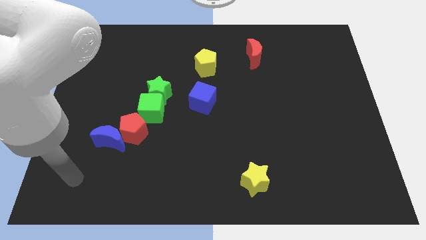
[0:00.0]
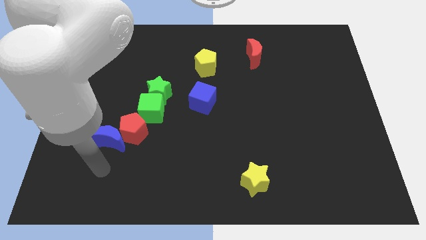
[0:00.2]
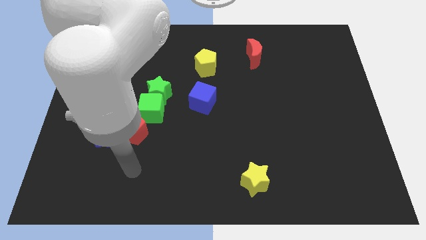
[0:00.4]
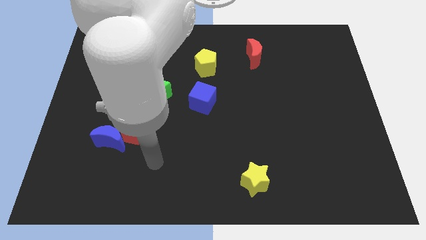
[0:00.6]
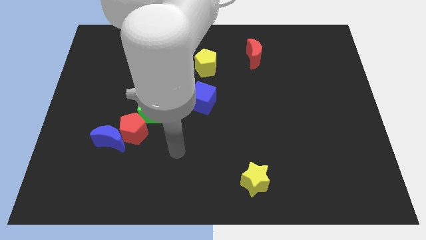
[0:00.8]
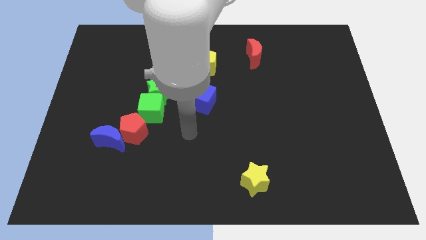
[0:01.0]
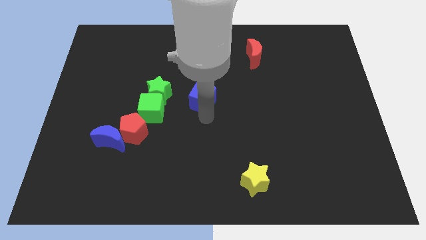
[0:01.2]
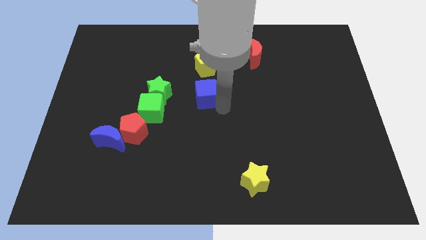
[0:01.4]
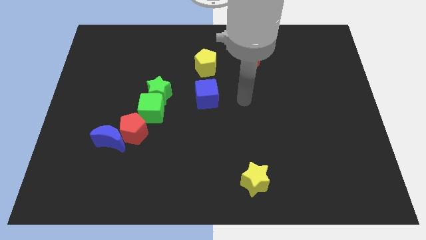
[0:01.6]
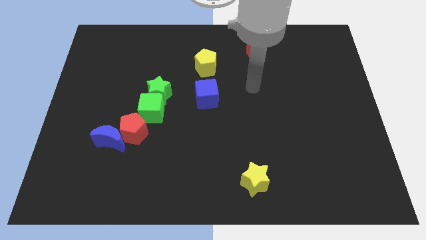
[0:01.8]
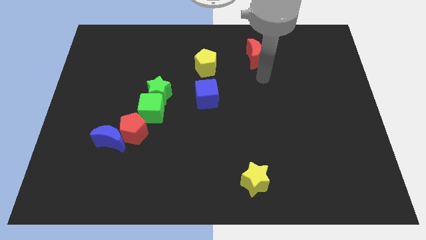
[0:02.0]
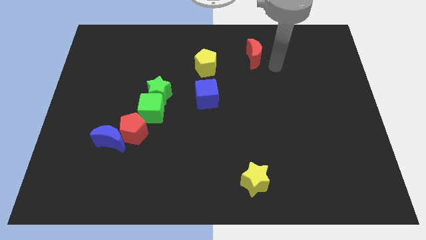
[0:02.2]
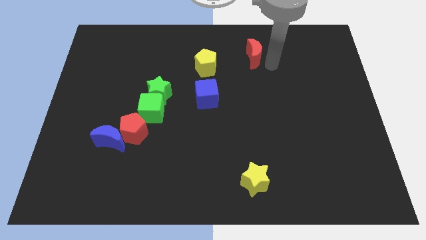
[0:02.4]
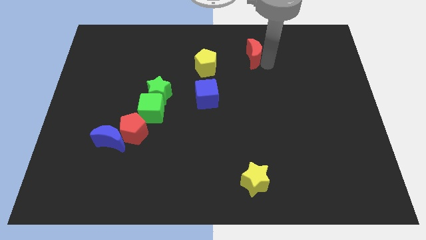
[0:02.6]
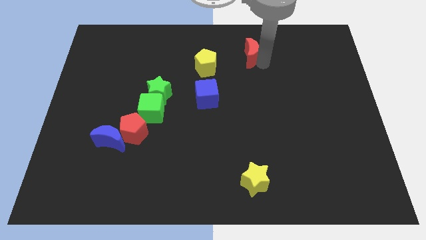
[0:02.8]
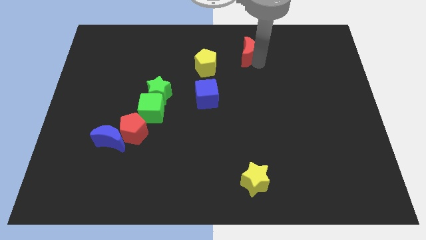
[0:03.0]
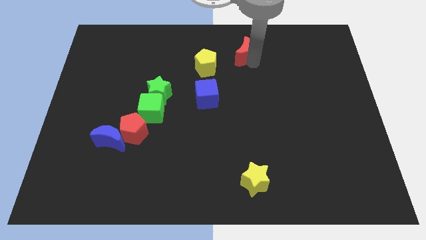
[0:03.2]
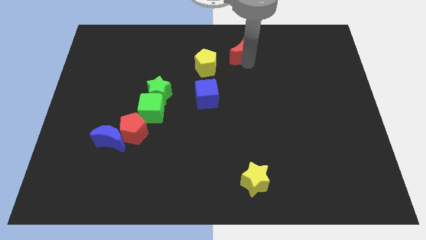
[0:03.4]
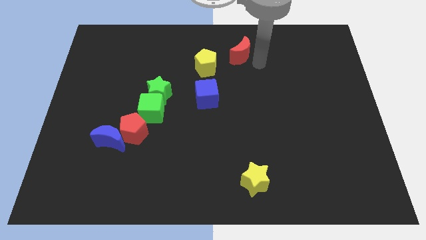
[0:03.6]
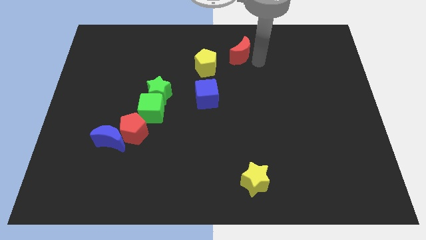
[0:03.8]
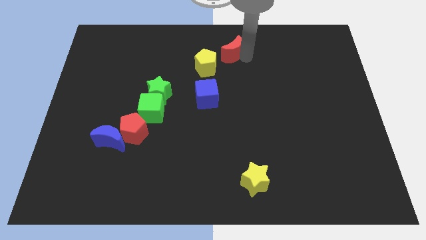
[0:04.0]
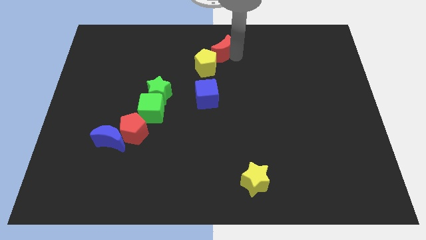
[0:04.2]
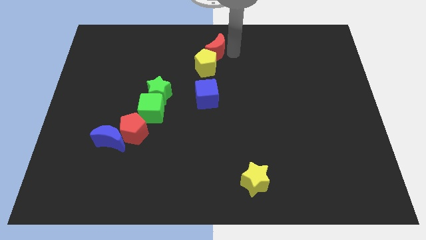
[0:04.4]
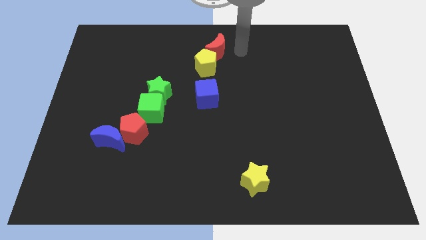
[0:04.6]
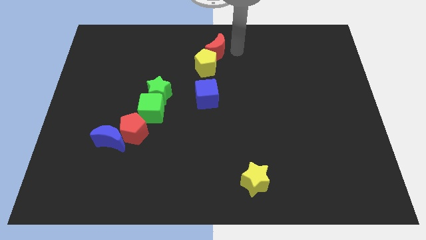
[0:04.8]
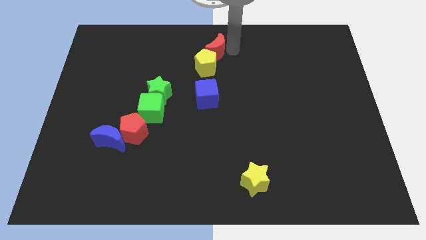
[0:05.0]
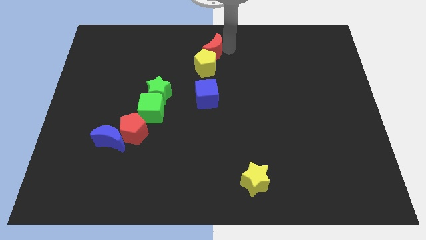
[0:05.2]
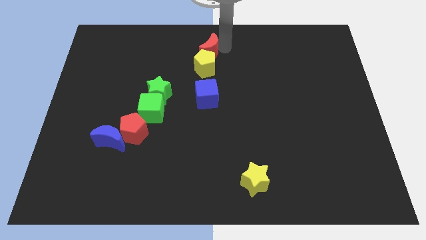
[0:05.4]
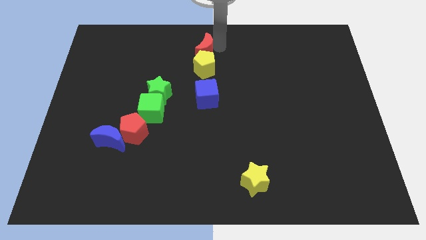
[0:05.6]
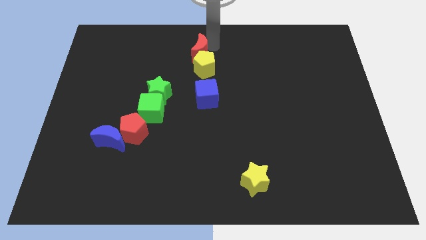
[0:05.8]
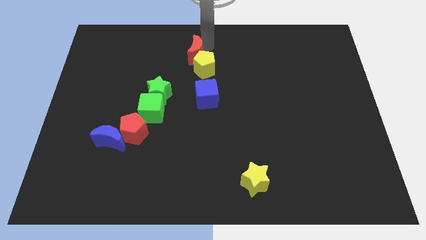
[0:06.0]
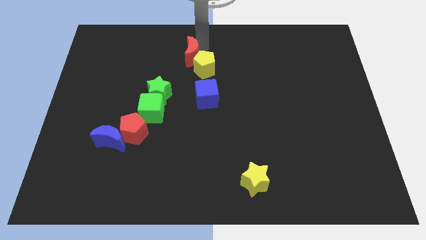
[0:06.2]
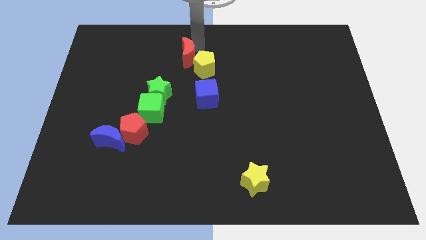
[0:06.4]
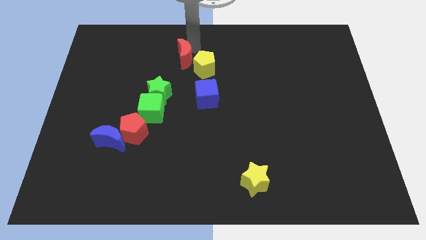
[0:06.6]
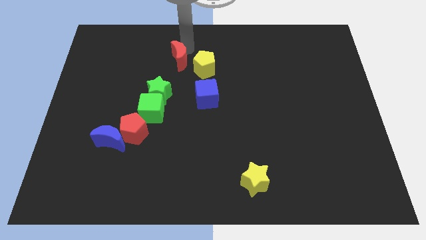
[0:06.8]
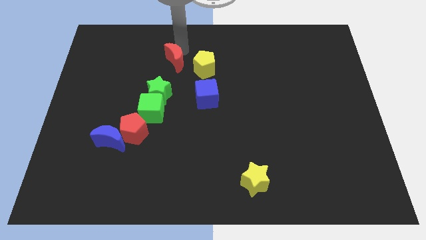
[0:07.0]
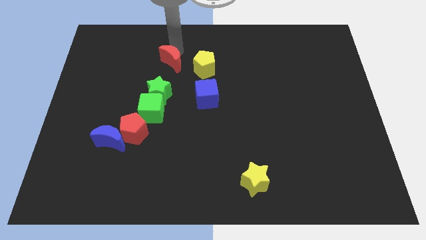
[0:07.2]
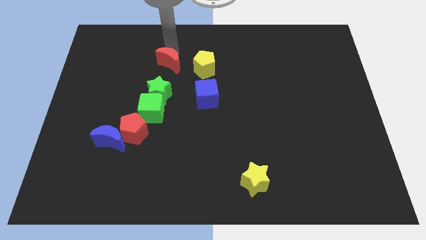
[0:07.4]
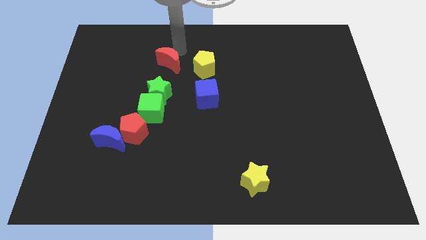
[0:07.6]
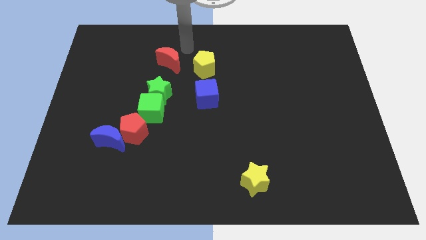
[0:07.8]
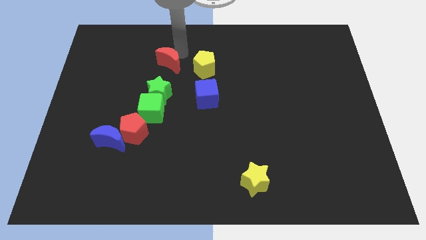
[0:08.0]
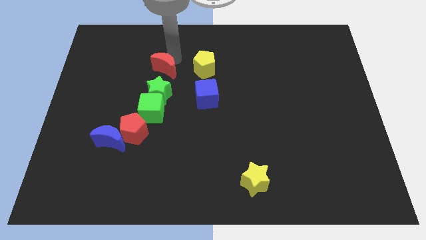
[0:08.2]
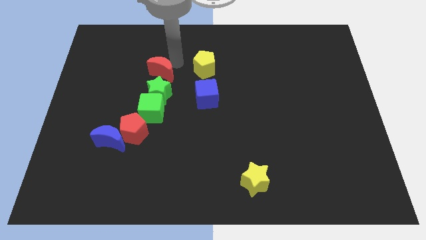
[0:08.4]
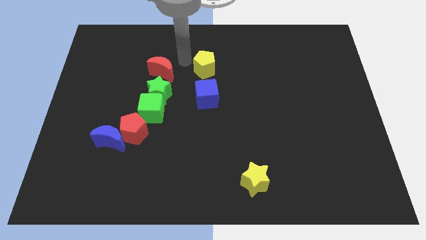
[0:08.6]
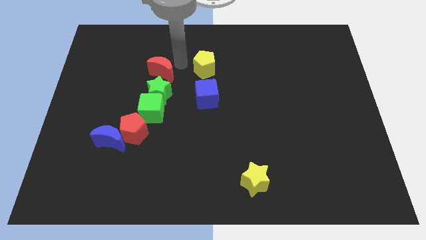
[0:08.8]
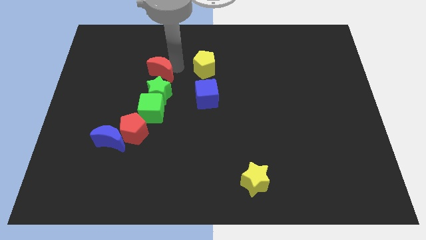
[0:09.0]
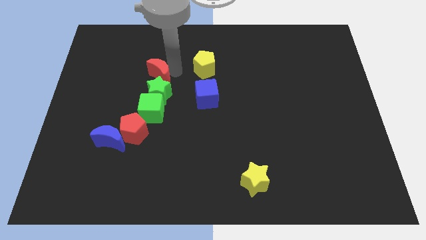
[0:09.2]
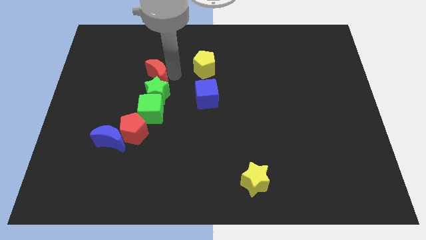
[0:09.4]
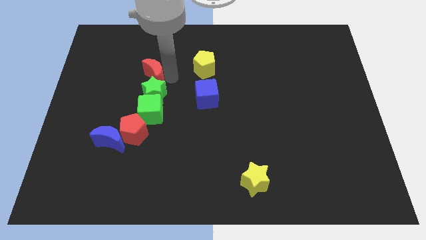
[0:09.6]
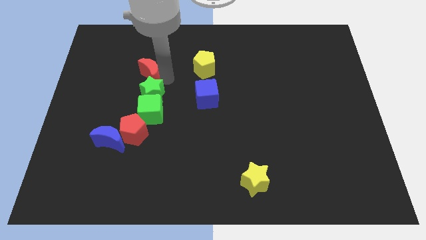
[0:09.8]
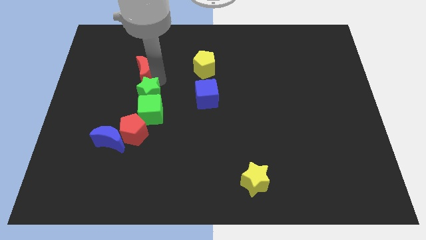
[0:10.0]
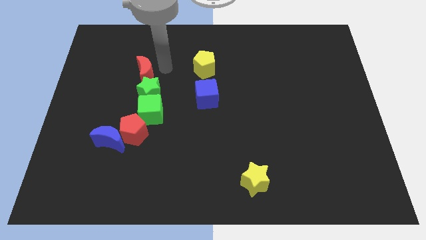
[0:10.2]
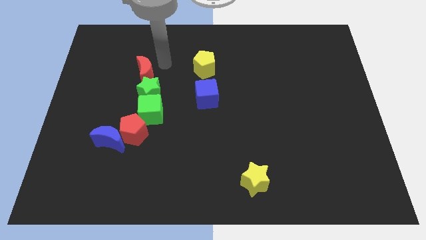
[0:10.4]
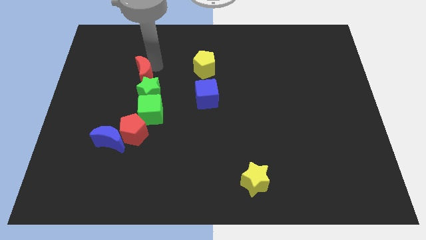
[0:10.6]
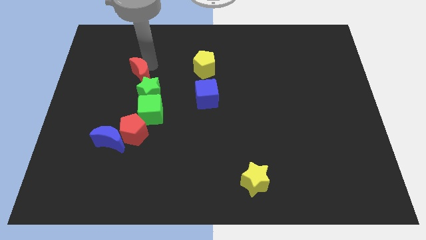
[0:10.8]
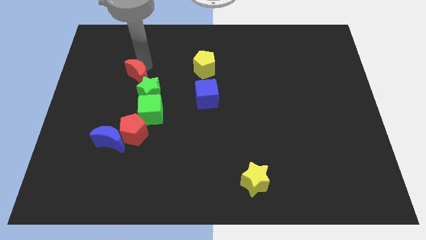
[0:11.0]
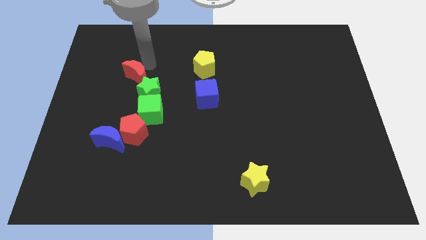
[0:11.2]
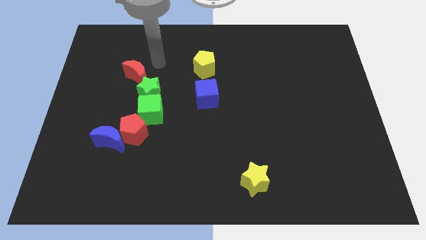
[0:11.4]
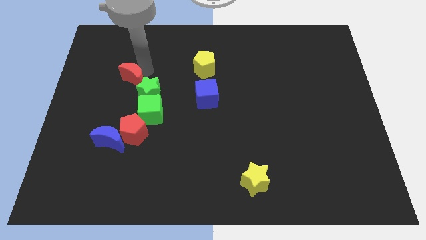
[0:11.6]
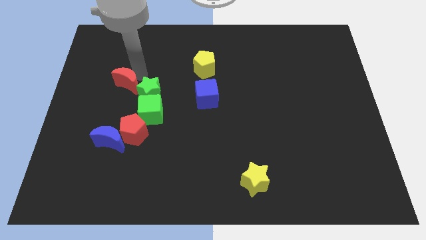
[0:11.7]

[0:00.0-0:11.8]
move the red moon to the left of the green star

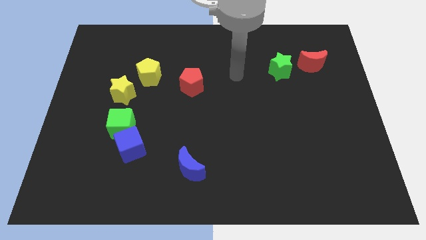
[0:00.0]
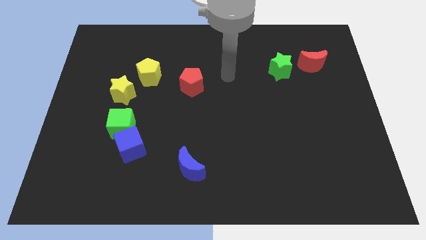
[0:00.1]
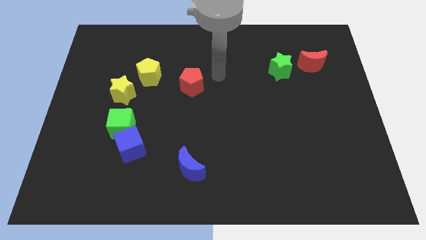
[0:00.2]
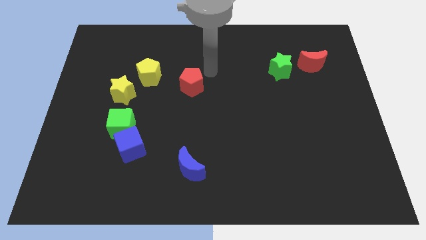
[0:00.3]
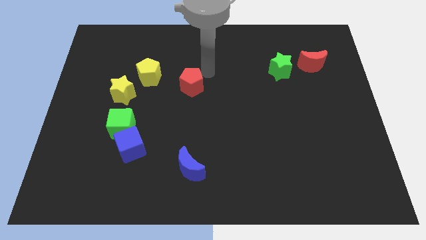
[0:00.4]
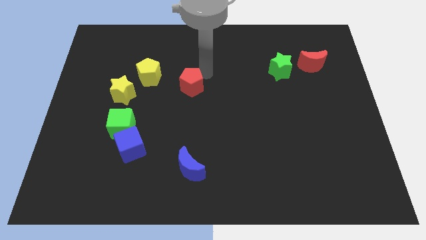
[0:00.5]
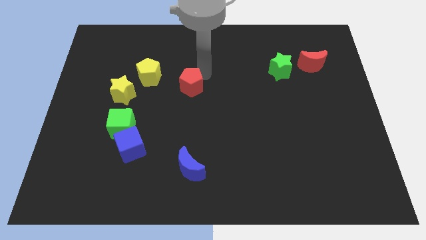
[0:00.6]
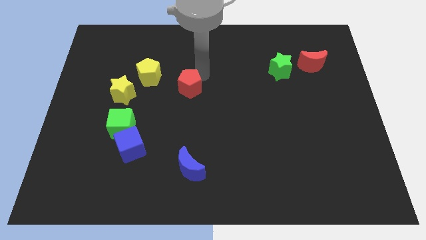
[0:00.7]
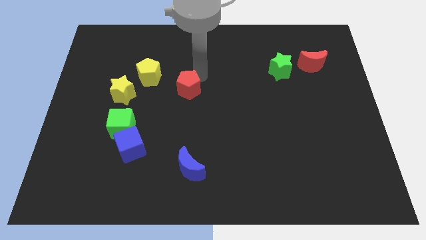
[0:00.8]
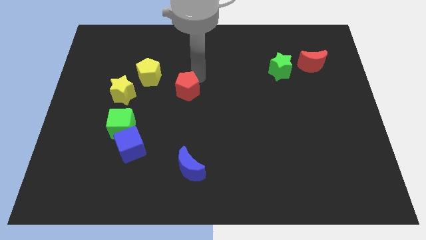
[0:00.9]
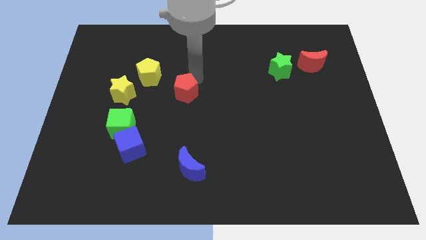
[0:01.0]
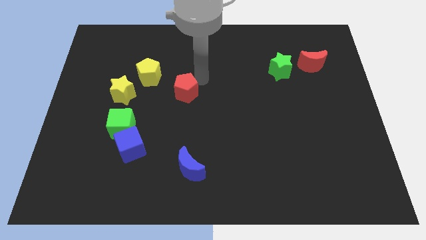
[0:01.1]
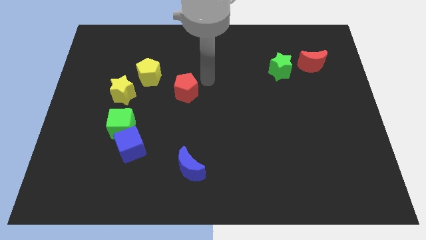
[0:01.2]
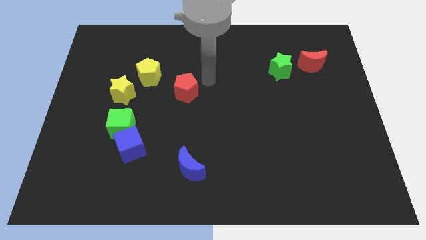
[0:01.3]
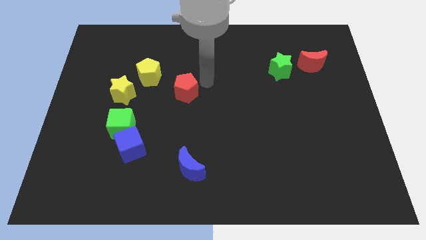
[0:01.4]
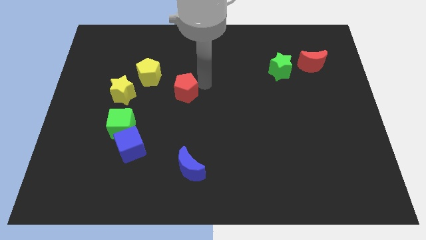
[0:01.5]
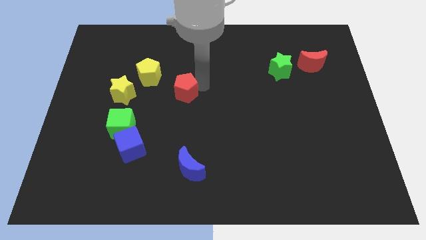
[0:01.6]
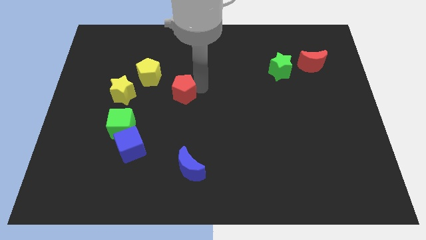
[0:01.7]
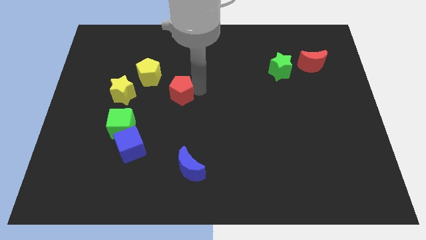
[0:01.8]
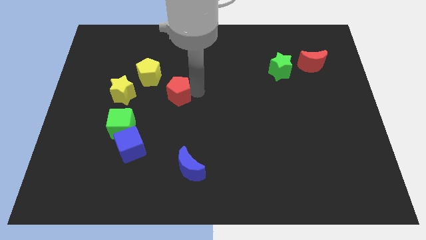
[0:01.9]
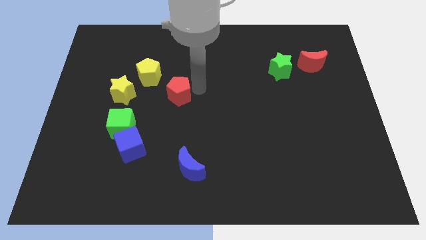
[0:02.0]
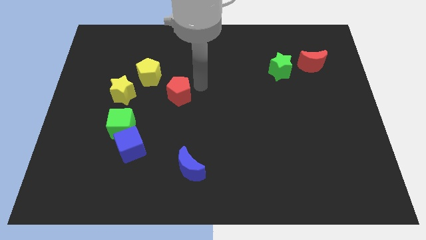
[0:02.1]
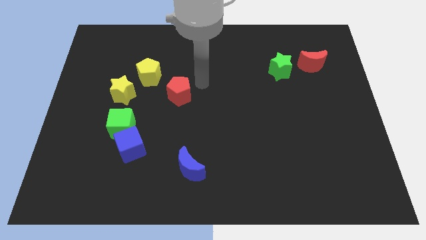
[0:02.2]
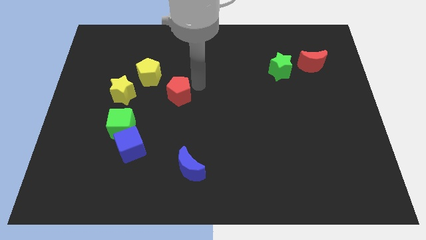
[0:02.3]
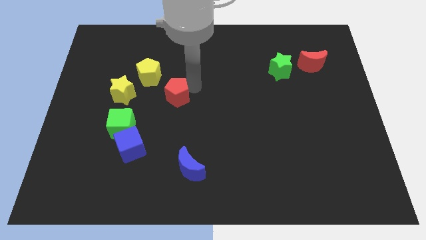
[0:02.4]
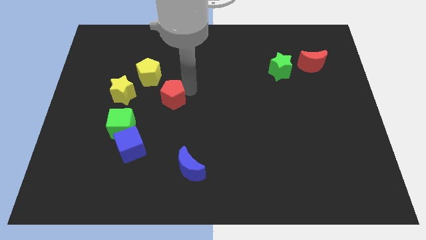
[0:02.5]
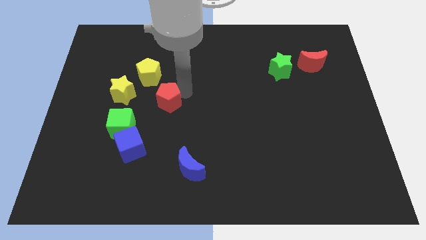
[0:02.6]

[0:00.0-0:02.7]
push the red pentagon to the top right of the green cube
